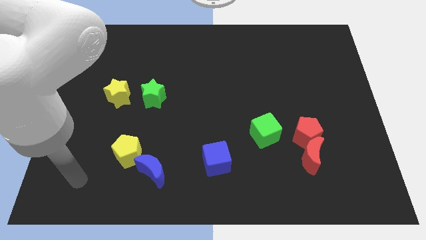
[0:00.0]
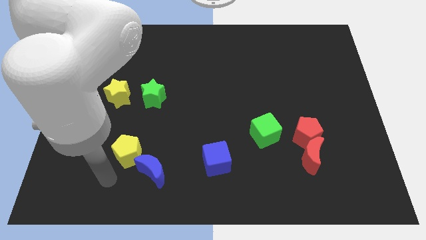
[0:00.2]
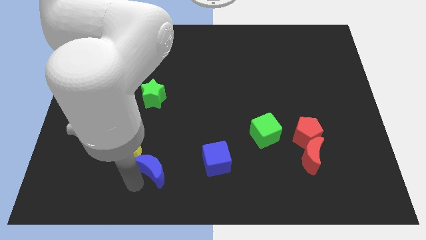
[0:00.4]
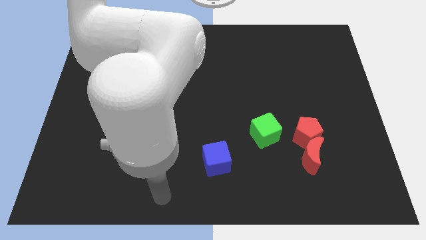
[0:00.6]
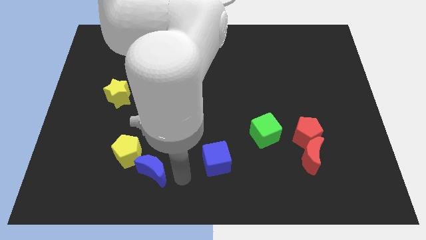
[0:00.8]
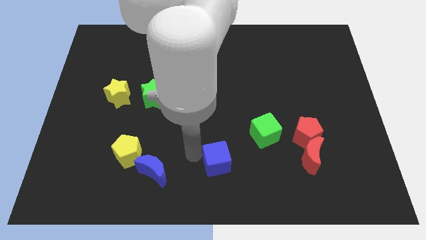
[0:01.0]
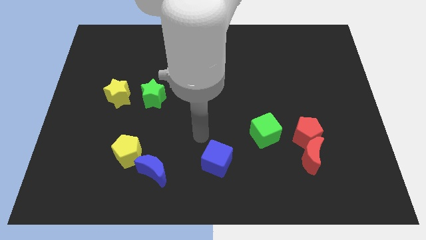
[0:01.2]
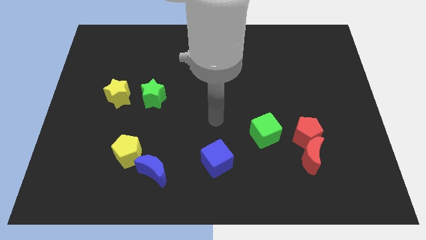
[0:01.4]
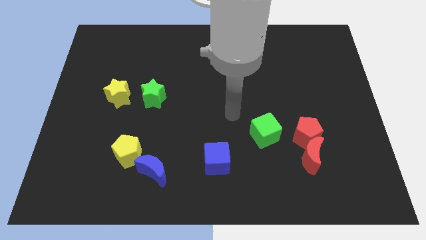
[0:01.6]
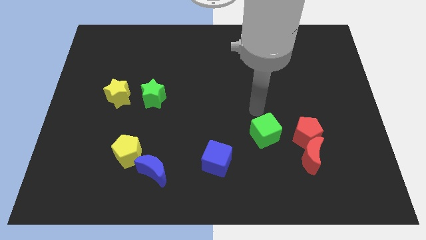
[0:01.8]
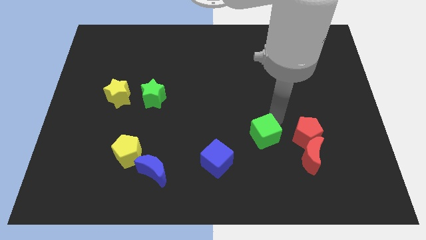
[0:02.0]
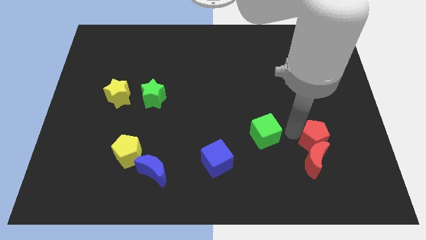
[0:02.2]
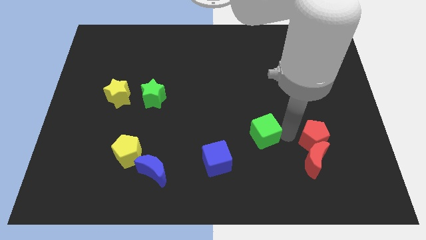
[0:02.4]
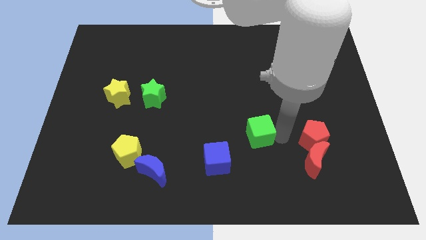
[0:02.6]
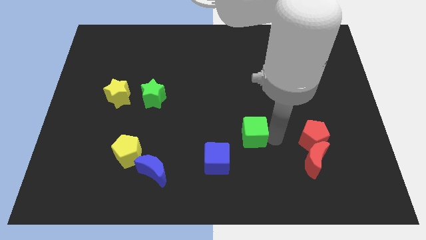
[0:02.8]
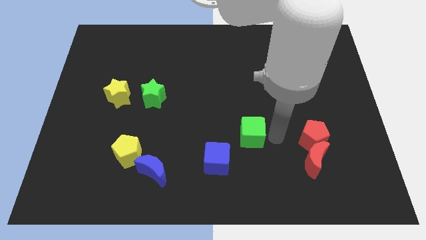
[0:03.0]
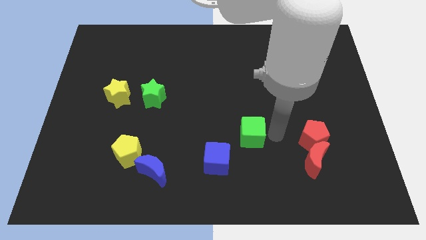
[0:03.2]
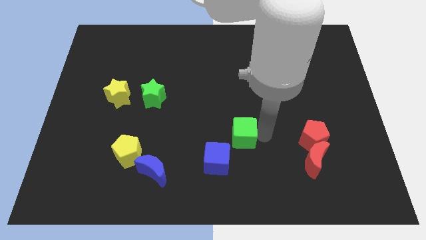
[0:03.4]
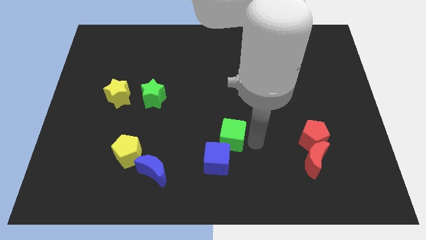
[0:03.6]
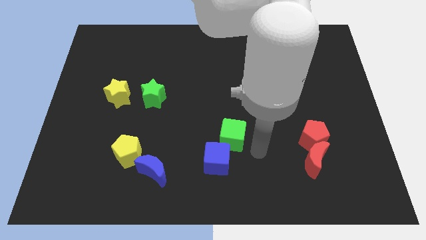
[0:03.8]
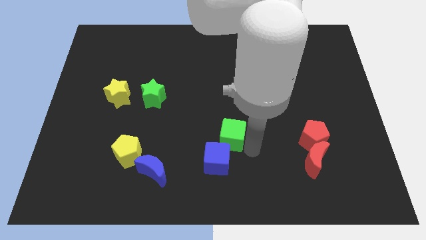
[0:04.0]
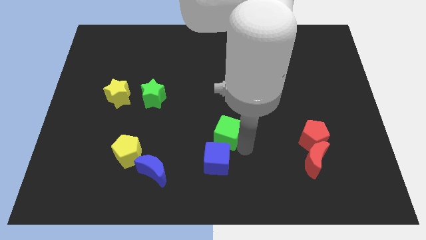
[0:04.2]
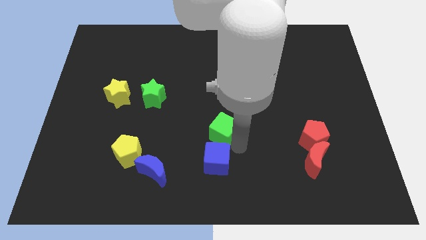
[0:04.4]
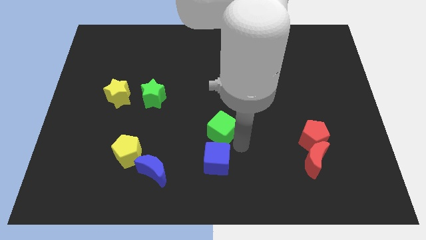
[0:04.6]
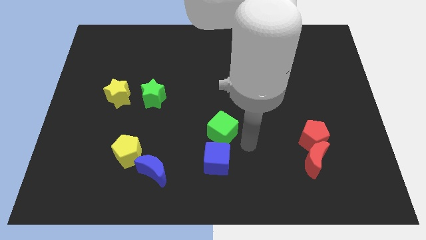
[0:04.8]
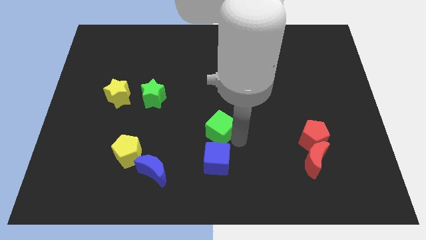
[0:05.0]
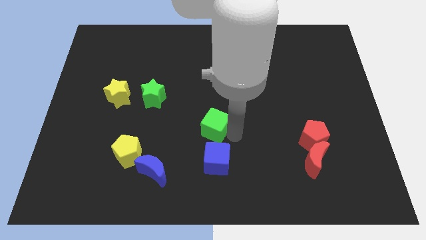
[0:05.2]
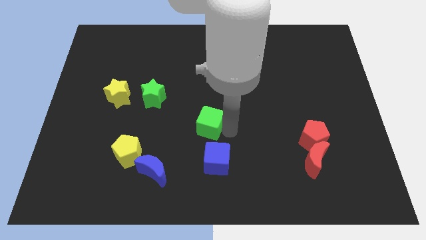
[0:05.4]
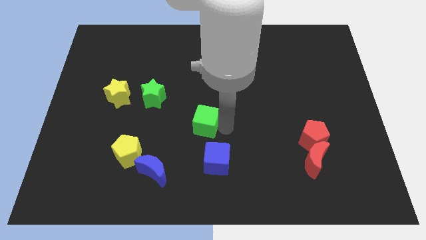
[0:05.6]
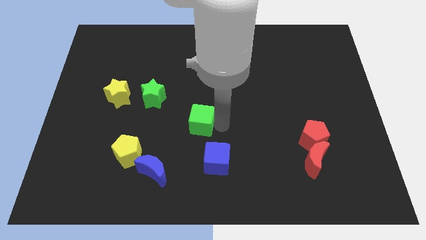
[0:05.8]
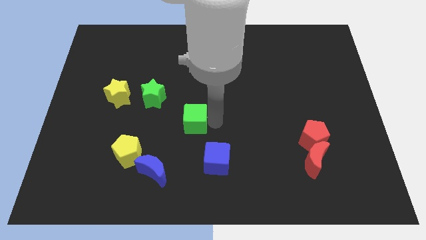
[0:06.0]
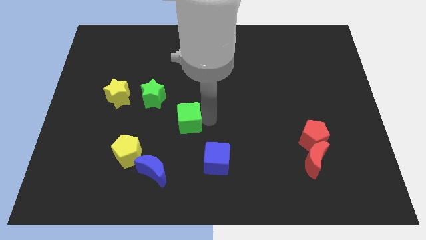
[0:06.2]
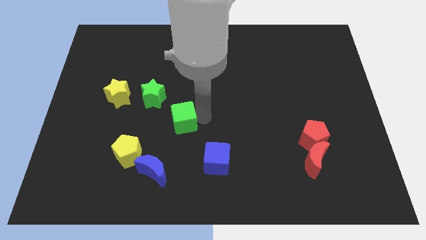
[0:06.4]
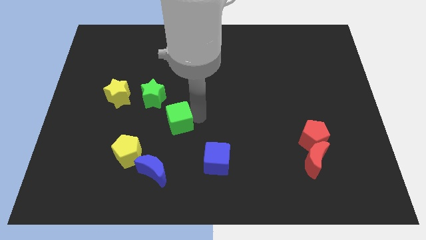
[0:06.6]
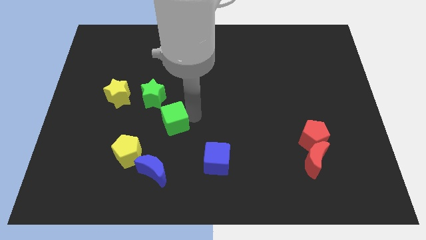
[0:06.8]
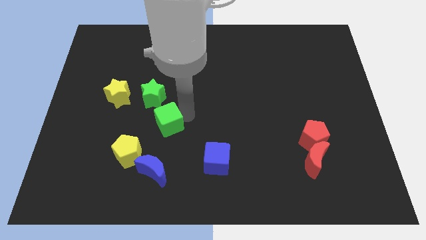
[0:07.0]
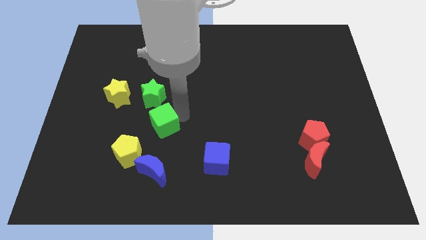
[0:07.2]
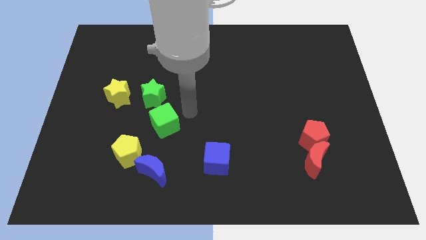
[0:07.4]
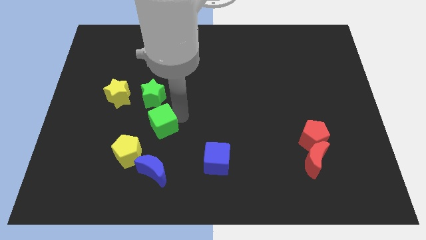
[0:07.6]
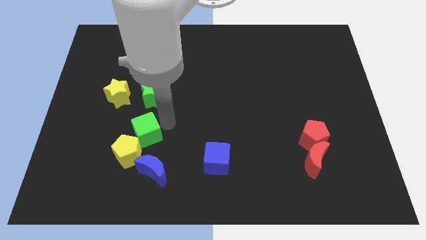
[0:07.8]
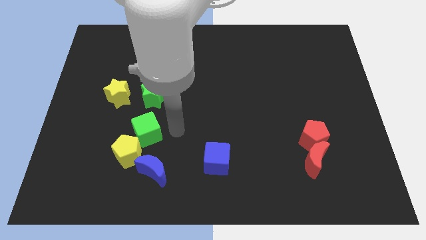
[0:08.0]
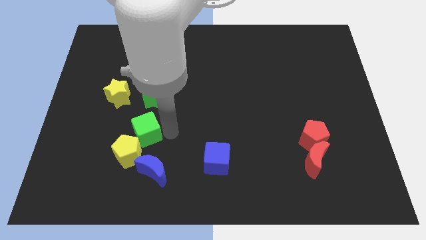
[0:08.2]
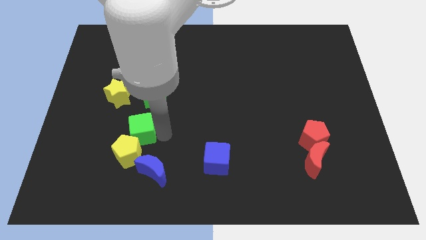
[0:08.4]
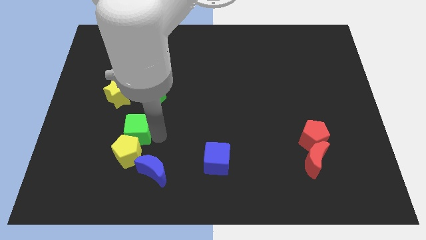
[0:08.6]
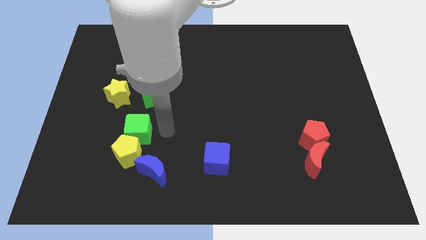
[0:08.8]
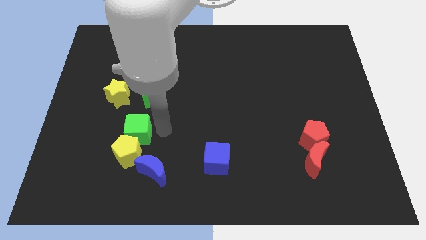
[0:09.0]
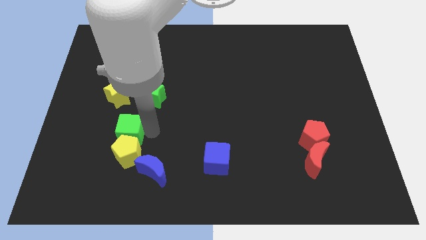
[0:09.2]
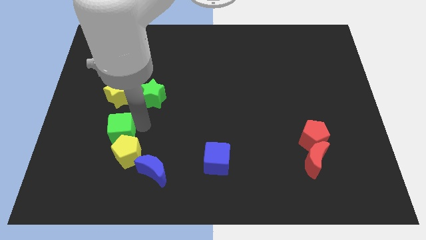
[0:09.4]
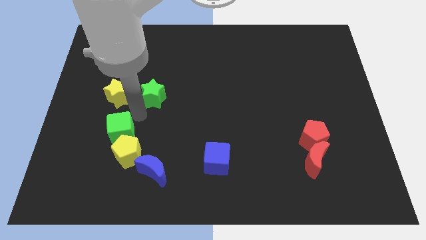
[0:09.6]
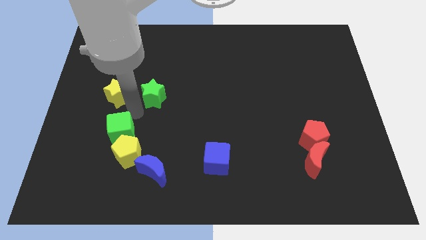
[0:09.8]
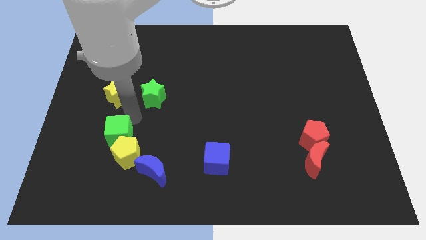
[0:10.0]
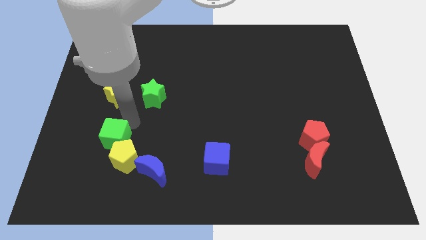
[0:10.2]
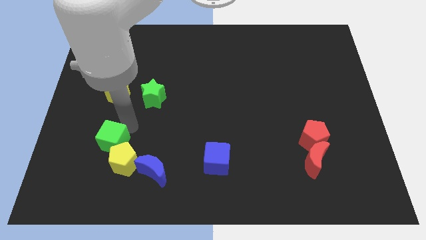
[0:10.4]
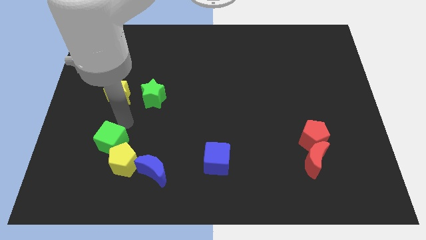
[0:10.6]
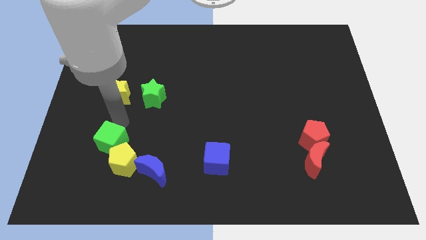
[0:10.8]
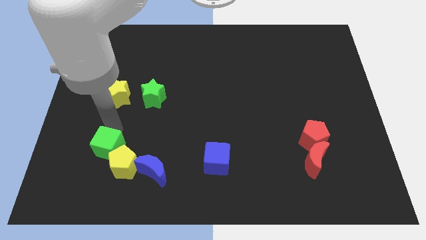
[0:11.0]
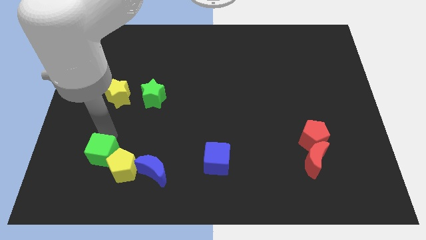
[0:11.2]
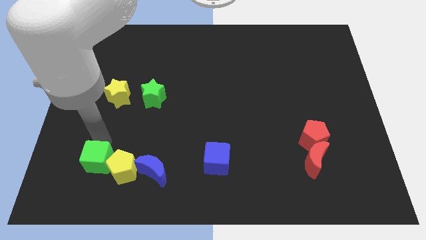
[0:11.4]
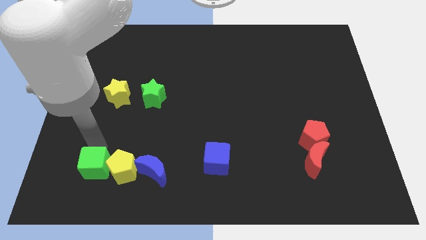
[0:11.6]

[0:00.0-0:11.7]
slide the green cube to the bottom left of the yellow pentagon

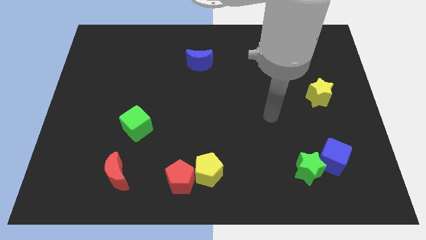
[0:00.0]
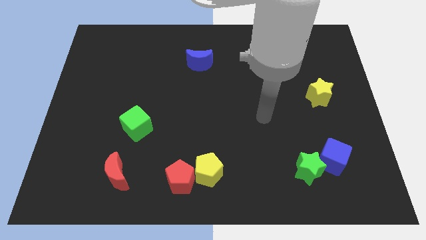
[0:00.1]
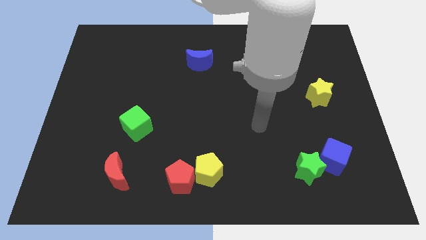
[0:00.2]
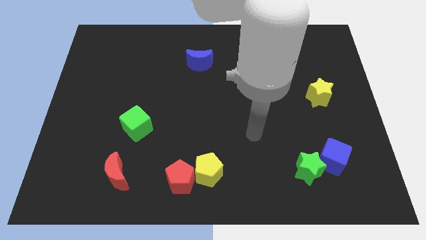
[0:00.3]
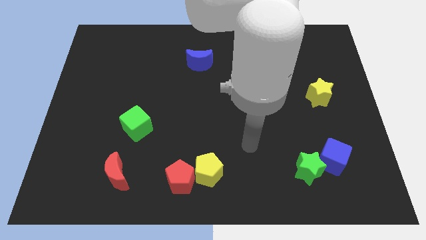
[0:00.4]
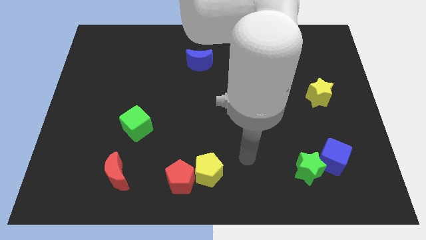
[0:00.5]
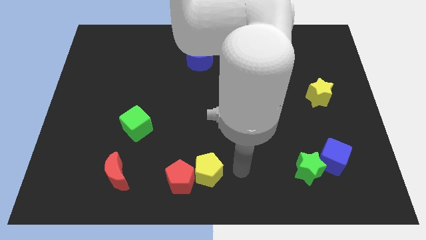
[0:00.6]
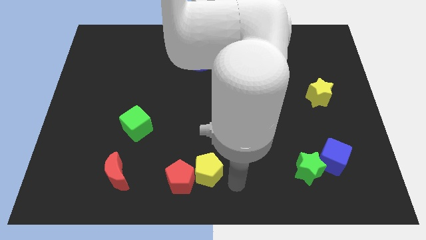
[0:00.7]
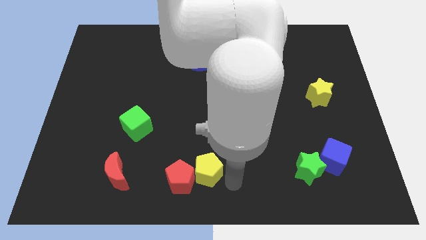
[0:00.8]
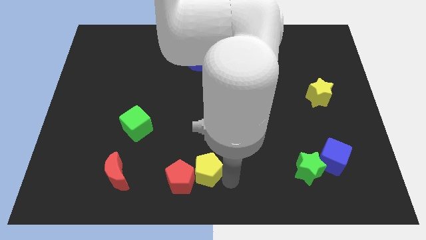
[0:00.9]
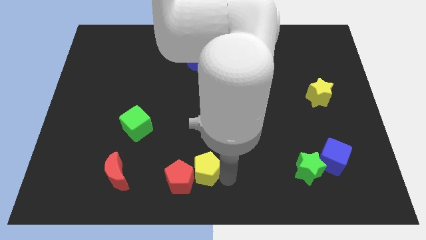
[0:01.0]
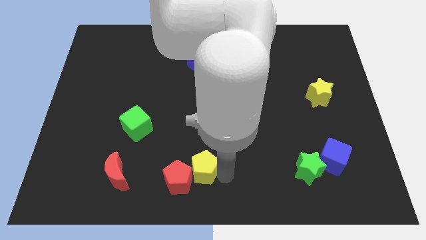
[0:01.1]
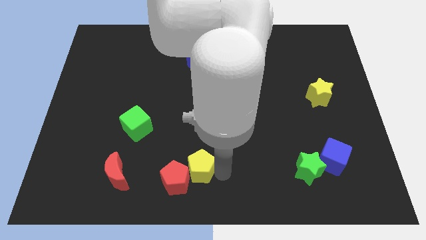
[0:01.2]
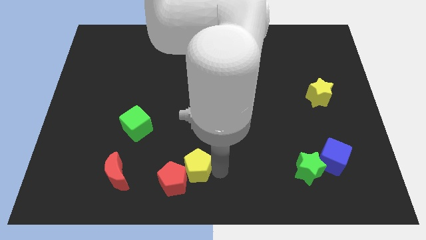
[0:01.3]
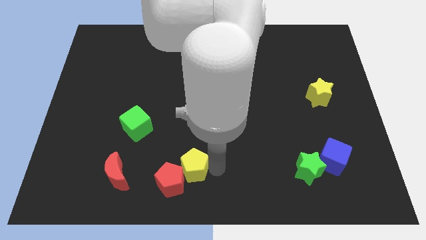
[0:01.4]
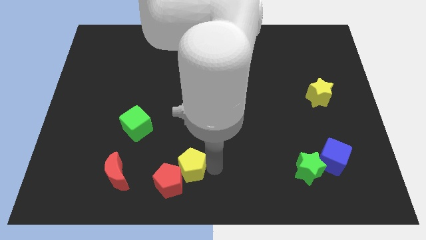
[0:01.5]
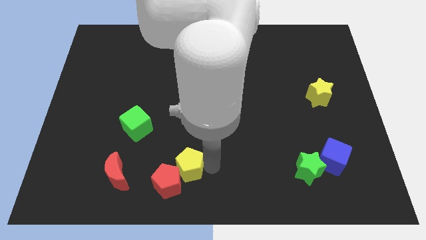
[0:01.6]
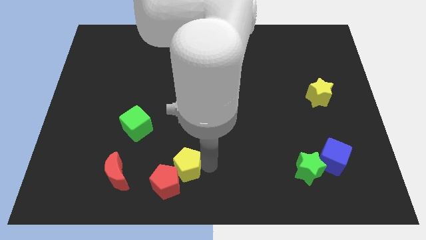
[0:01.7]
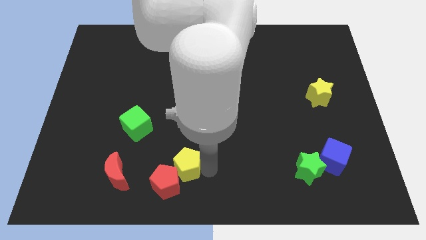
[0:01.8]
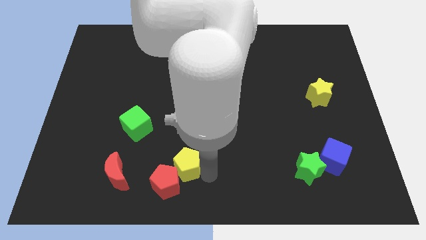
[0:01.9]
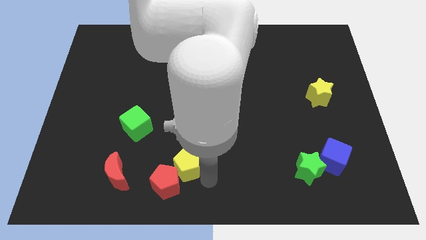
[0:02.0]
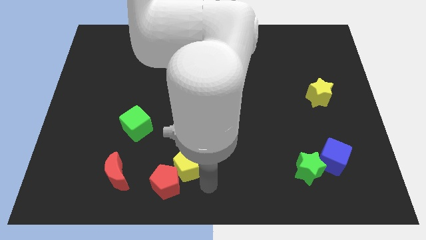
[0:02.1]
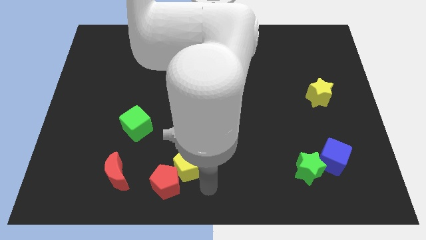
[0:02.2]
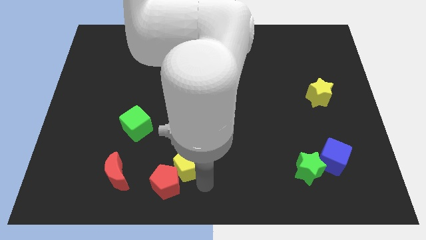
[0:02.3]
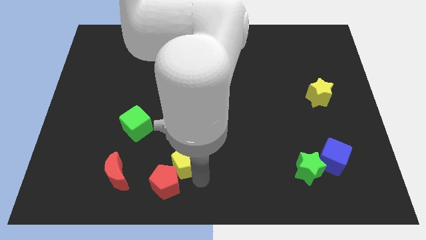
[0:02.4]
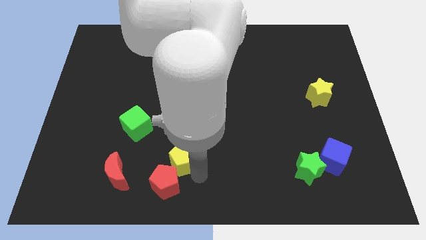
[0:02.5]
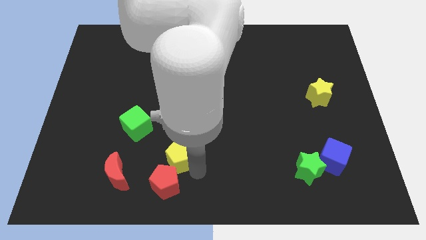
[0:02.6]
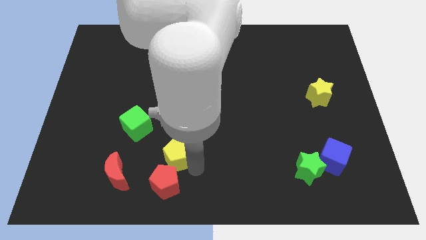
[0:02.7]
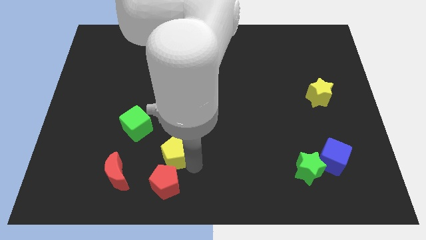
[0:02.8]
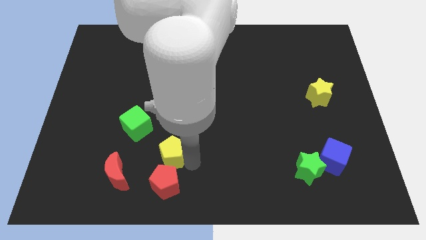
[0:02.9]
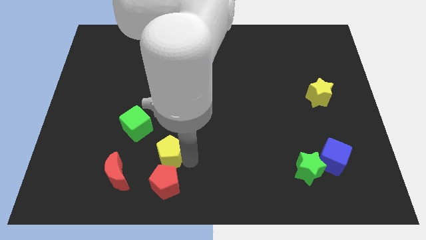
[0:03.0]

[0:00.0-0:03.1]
put the yellow pentagon diagonally up and to the right of the red moon
